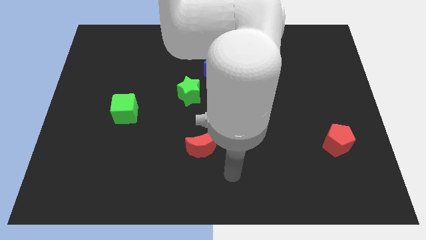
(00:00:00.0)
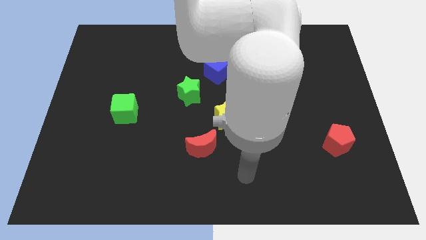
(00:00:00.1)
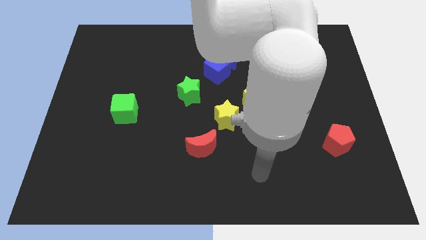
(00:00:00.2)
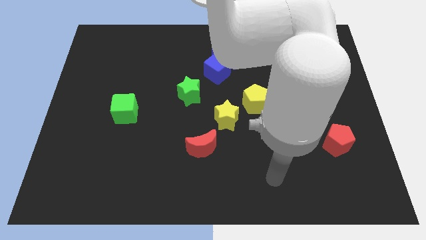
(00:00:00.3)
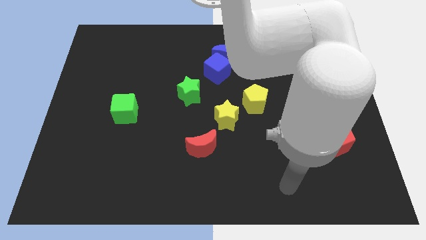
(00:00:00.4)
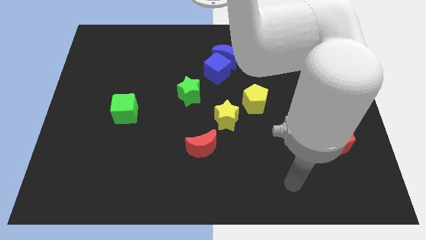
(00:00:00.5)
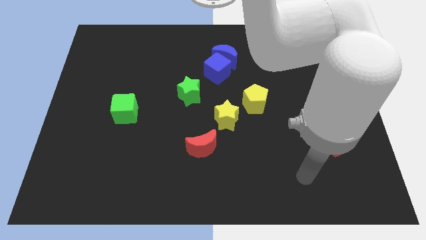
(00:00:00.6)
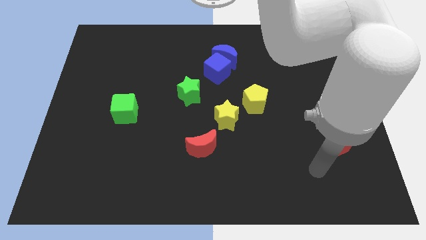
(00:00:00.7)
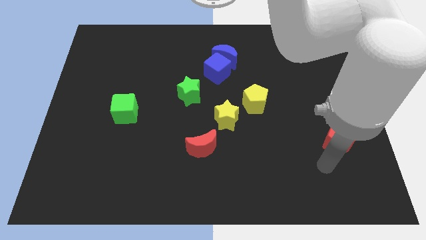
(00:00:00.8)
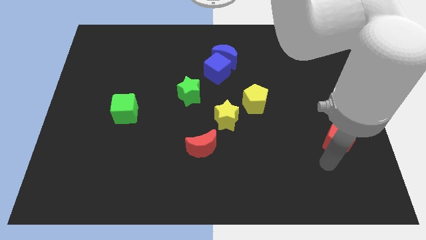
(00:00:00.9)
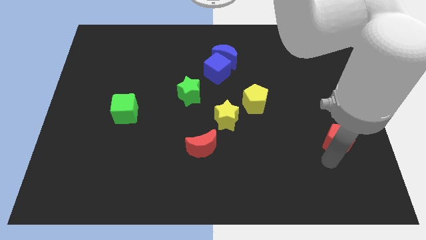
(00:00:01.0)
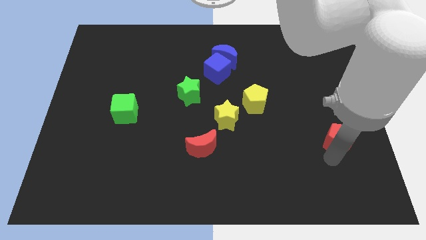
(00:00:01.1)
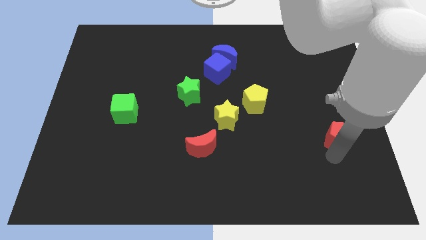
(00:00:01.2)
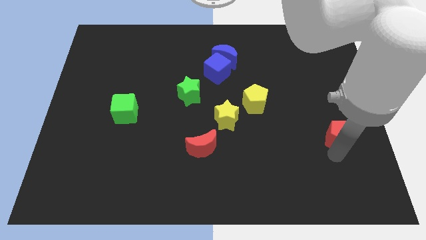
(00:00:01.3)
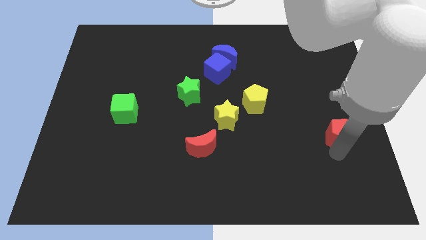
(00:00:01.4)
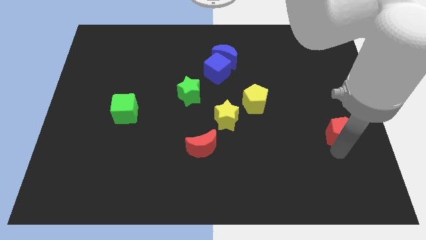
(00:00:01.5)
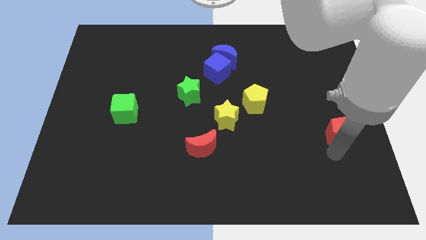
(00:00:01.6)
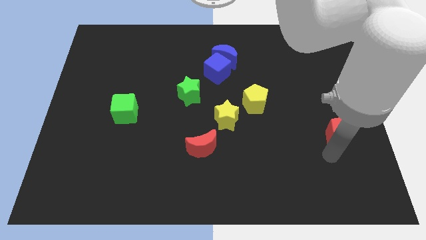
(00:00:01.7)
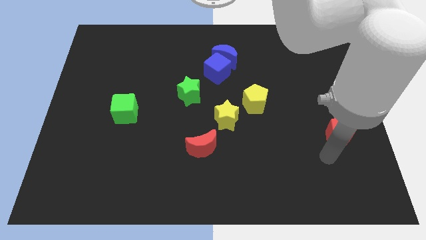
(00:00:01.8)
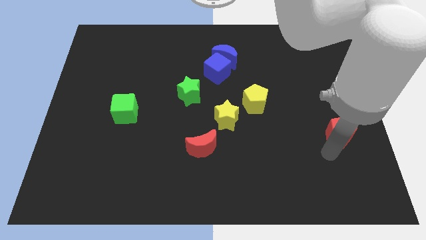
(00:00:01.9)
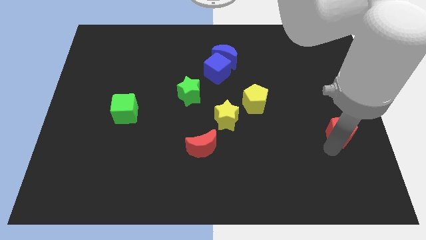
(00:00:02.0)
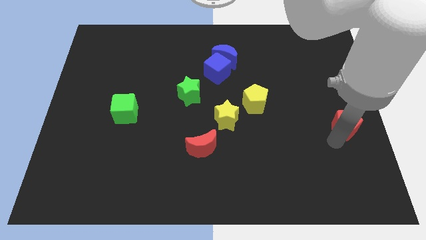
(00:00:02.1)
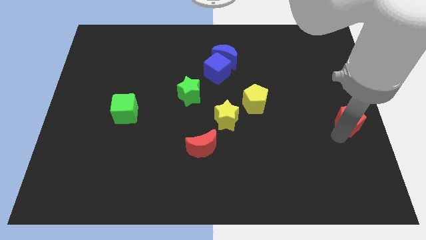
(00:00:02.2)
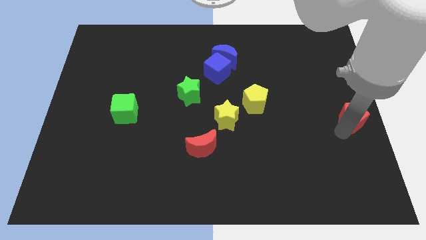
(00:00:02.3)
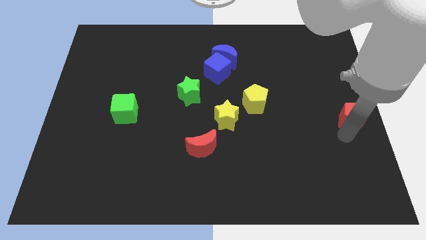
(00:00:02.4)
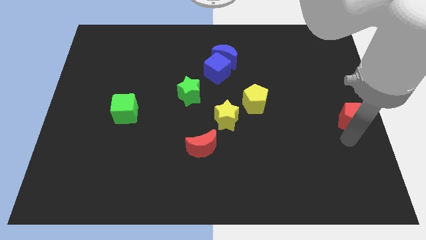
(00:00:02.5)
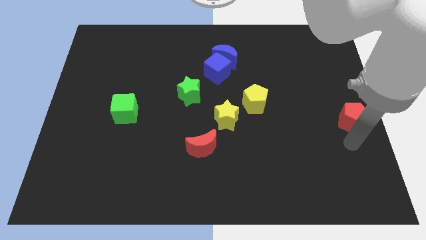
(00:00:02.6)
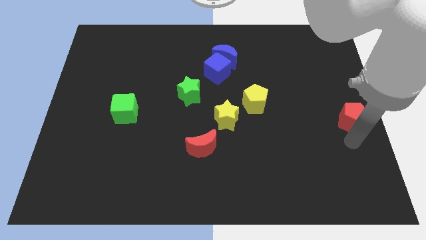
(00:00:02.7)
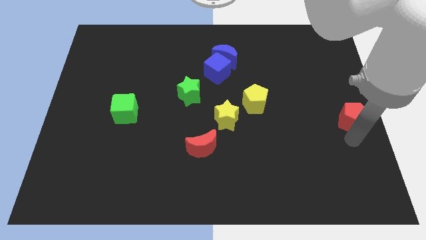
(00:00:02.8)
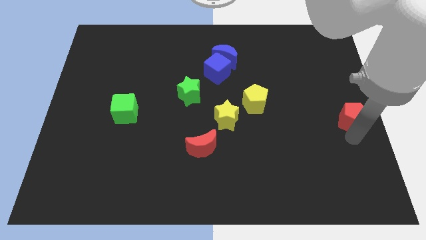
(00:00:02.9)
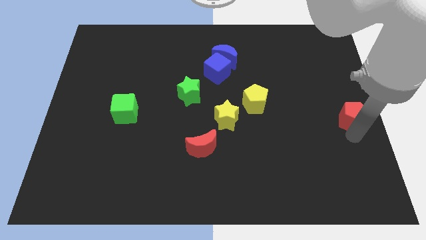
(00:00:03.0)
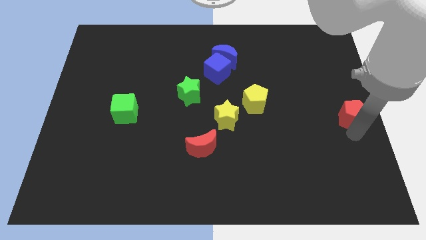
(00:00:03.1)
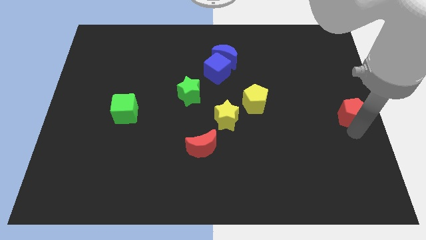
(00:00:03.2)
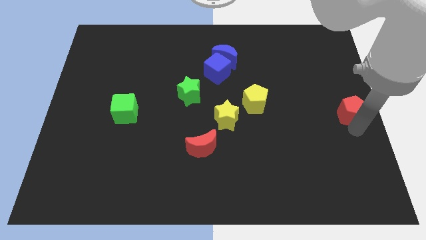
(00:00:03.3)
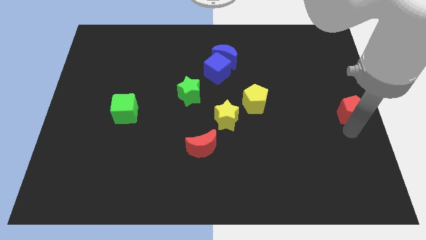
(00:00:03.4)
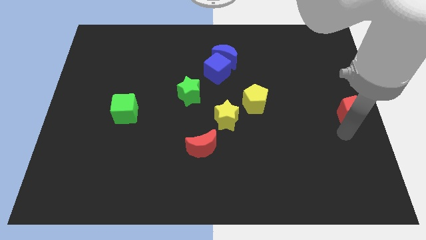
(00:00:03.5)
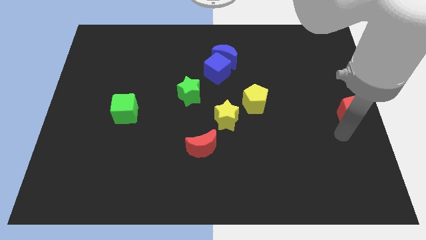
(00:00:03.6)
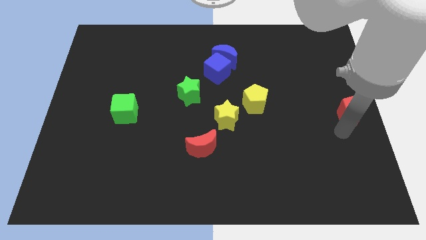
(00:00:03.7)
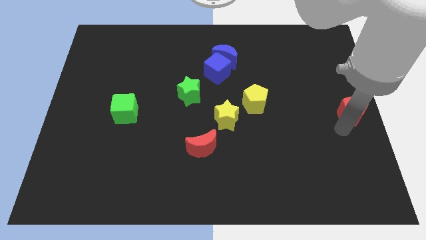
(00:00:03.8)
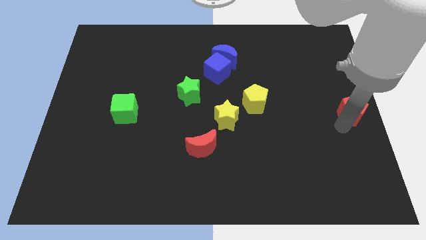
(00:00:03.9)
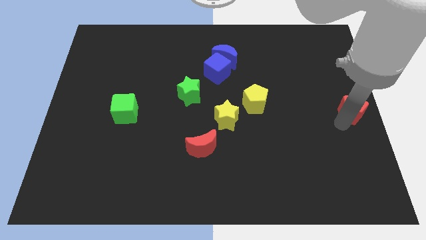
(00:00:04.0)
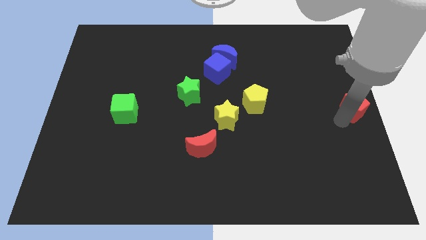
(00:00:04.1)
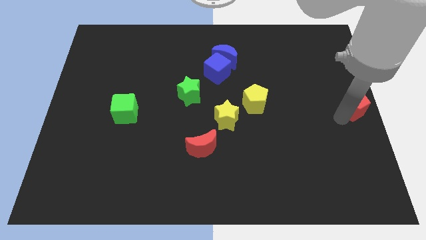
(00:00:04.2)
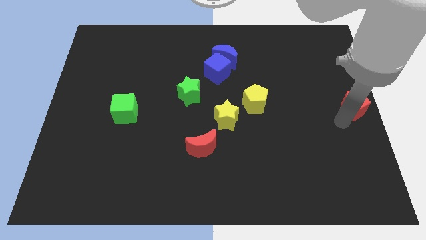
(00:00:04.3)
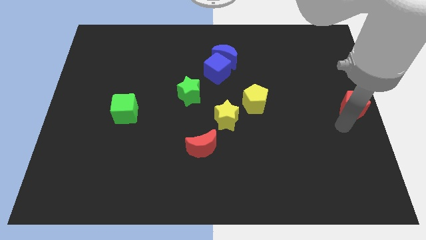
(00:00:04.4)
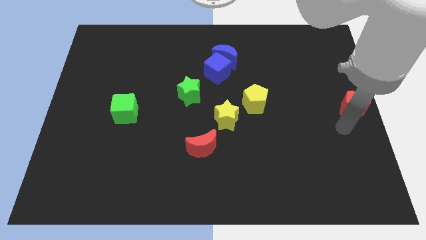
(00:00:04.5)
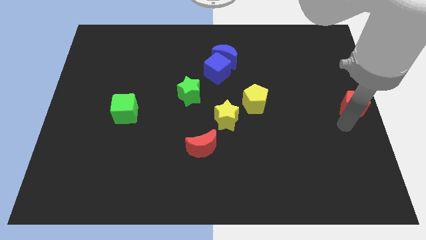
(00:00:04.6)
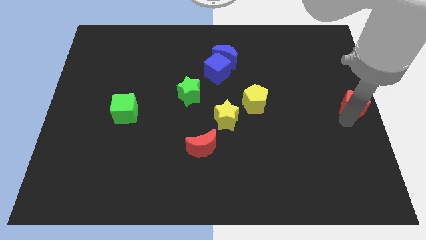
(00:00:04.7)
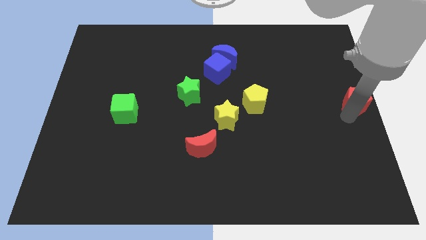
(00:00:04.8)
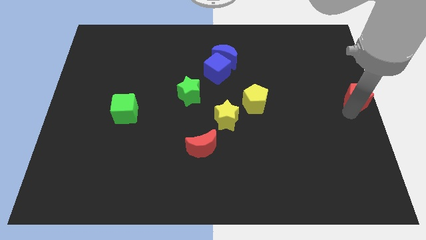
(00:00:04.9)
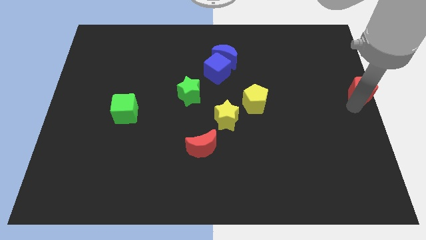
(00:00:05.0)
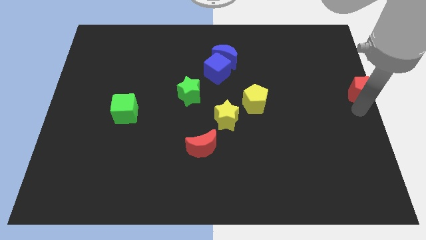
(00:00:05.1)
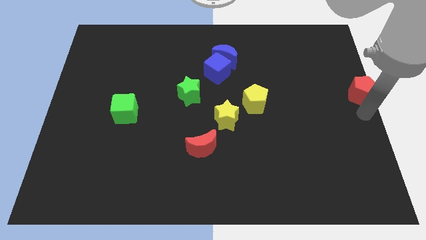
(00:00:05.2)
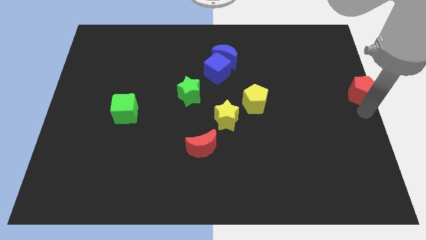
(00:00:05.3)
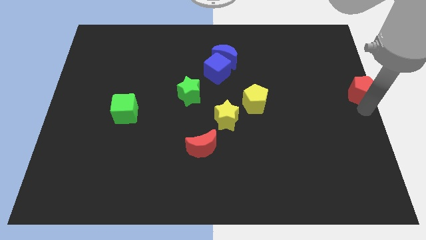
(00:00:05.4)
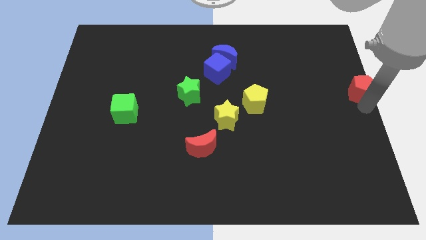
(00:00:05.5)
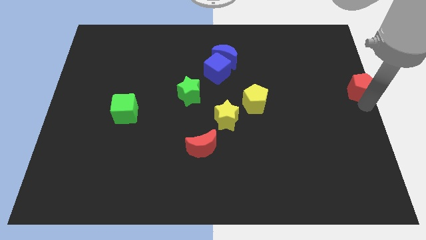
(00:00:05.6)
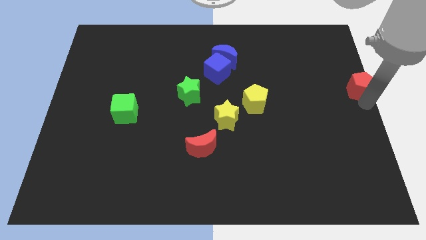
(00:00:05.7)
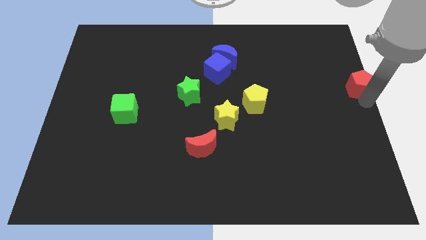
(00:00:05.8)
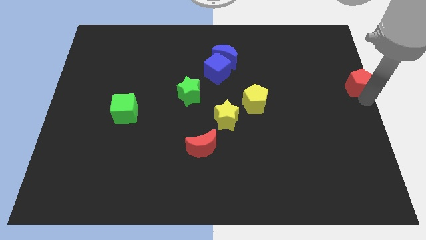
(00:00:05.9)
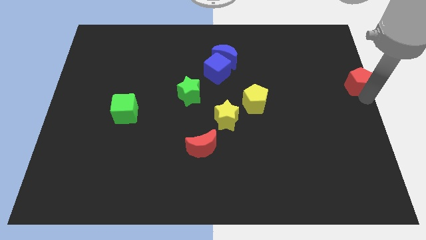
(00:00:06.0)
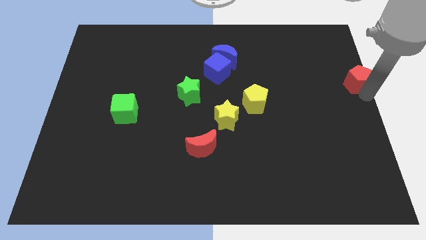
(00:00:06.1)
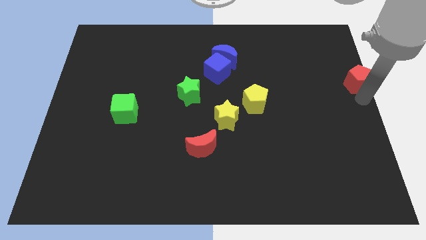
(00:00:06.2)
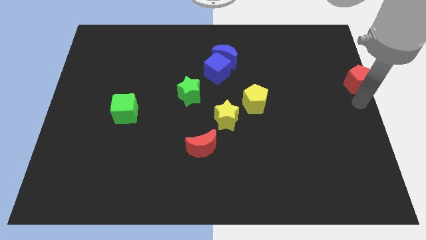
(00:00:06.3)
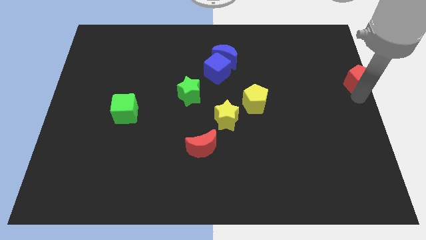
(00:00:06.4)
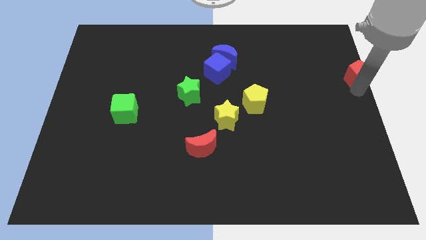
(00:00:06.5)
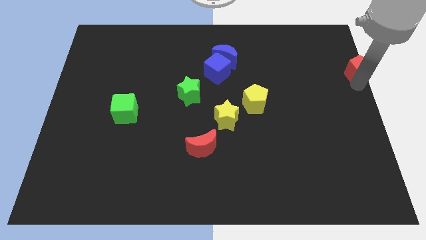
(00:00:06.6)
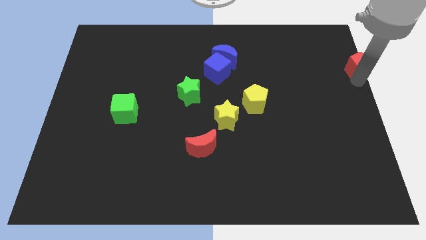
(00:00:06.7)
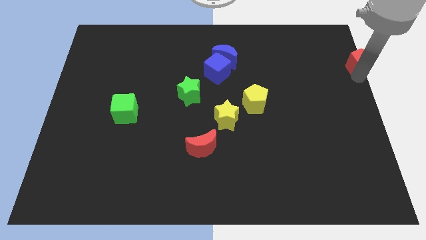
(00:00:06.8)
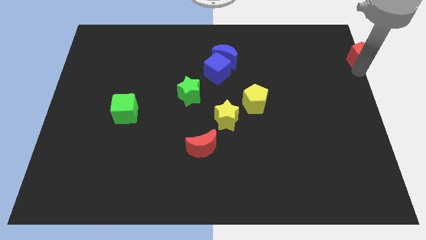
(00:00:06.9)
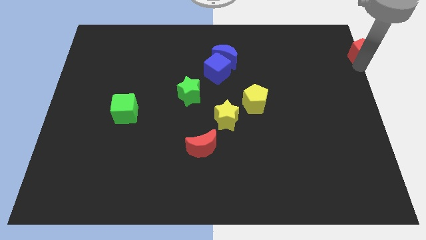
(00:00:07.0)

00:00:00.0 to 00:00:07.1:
push the red pentagon to the top right of the board

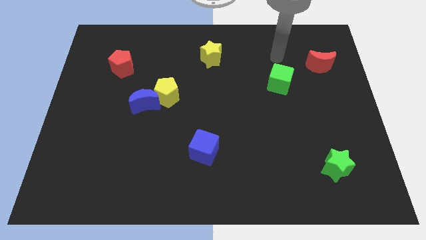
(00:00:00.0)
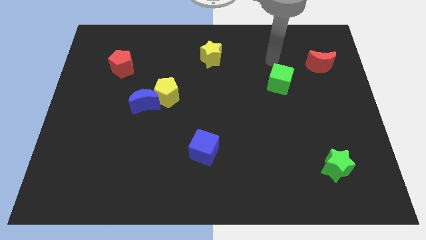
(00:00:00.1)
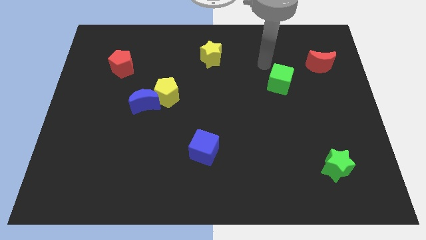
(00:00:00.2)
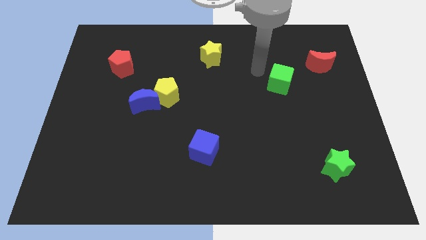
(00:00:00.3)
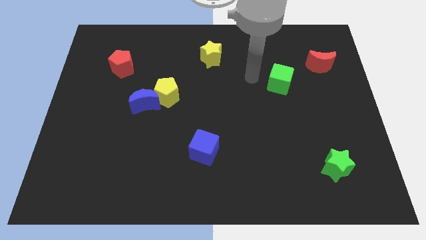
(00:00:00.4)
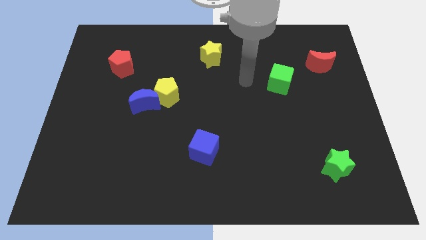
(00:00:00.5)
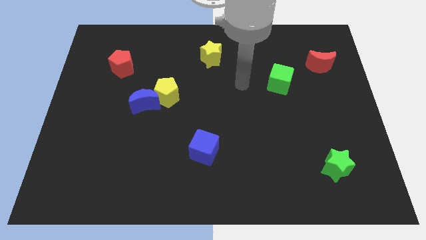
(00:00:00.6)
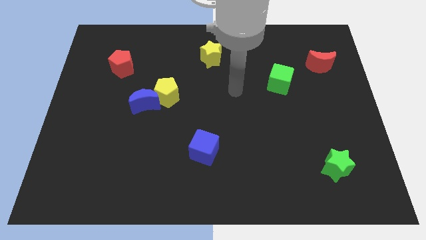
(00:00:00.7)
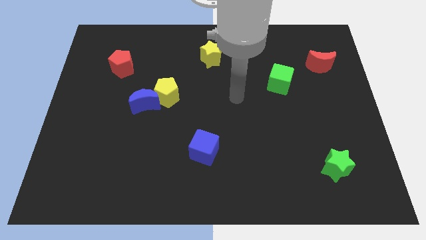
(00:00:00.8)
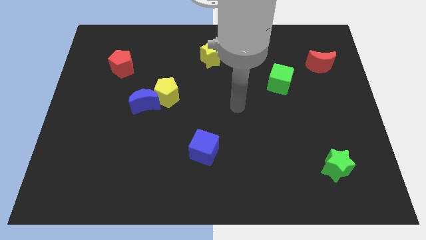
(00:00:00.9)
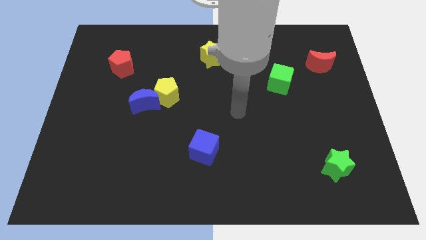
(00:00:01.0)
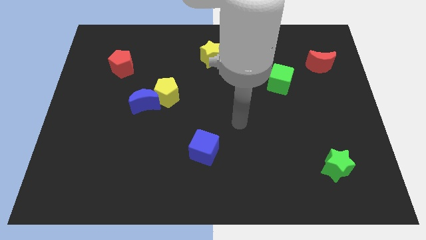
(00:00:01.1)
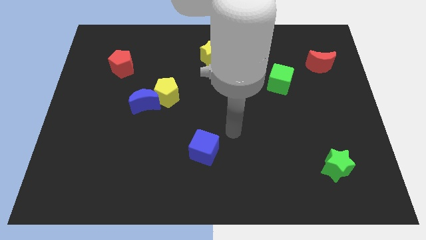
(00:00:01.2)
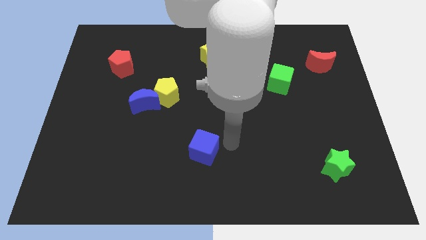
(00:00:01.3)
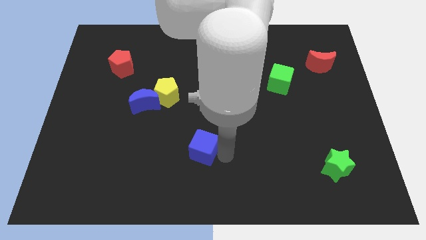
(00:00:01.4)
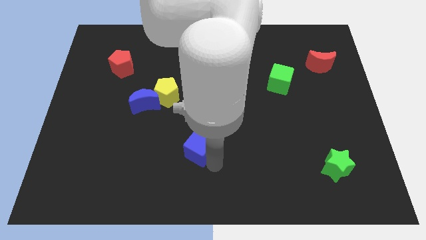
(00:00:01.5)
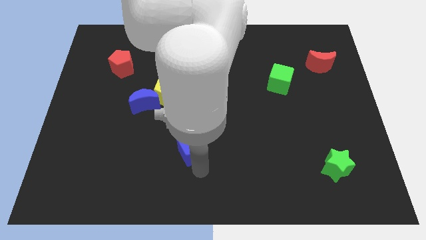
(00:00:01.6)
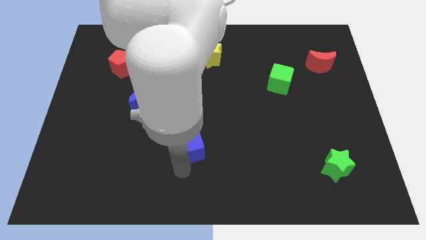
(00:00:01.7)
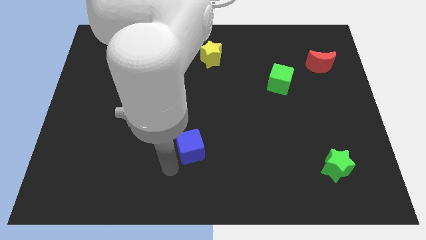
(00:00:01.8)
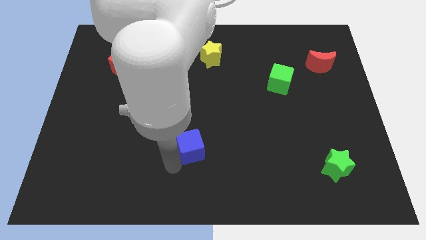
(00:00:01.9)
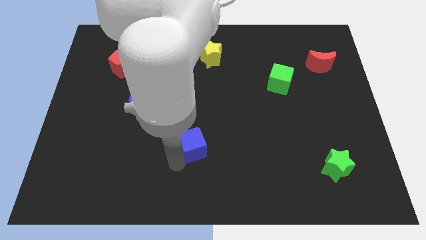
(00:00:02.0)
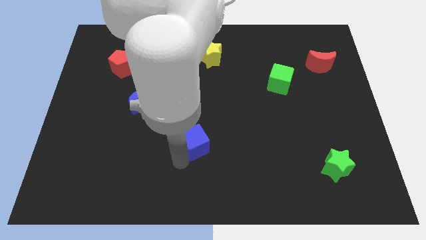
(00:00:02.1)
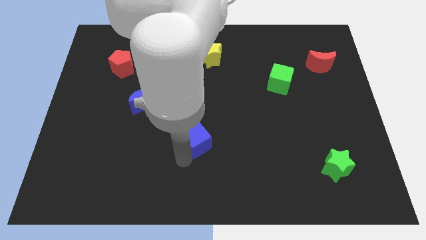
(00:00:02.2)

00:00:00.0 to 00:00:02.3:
push the blue cube to the middle of the board
